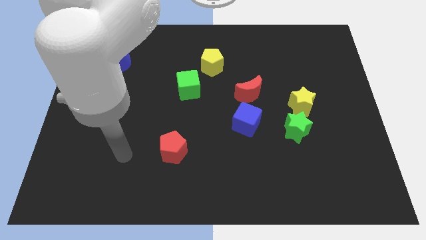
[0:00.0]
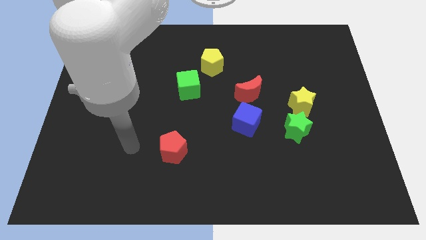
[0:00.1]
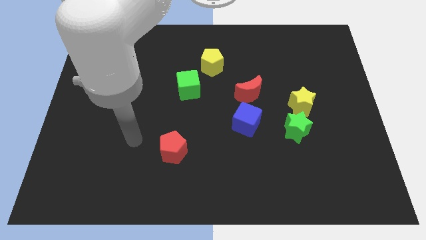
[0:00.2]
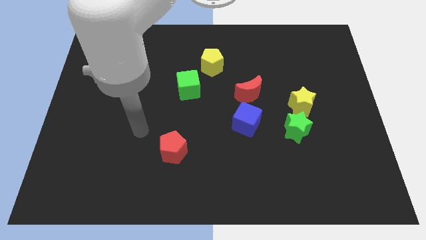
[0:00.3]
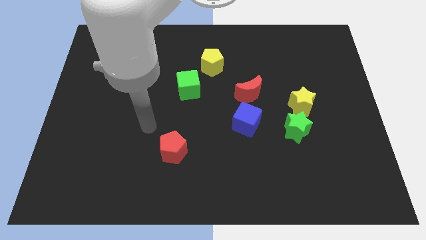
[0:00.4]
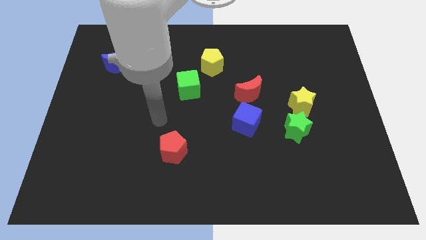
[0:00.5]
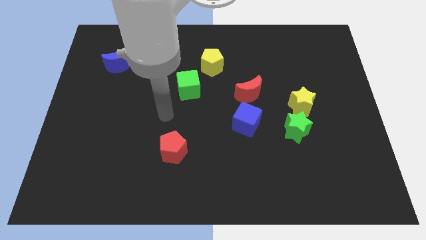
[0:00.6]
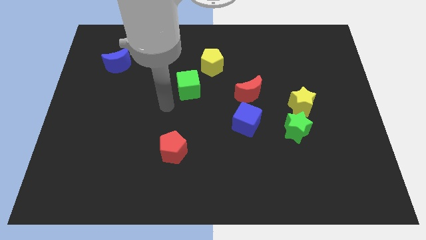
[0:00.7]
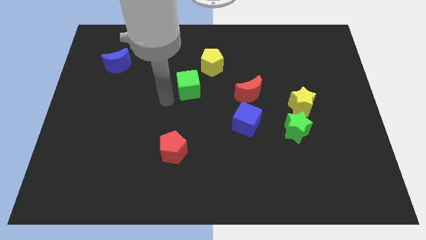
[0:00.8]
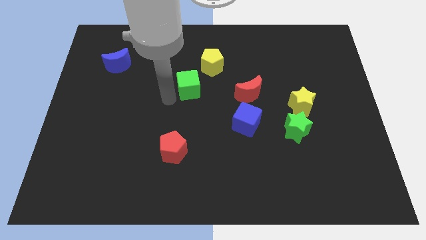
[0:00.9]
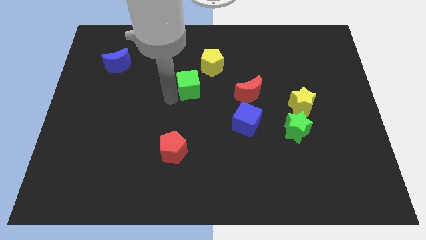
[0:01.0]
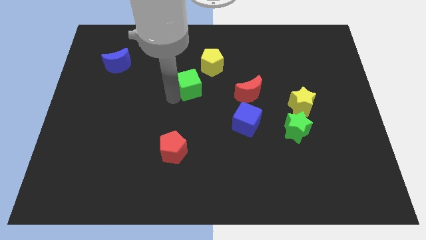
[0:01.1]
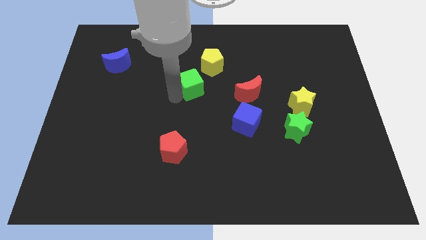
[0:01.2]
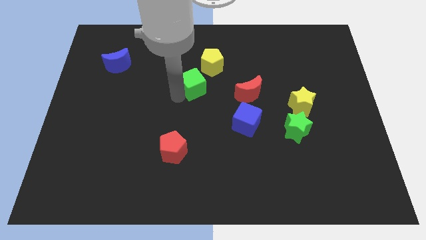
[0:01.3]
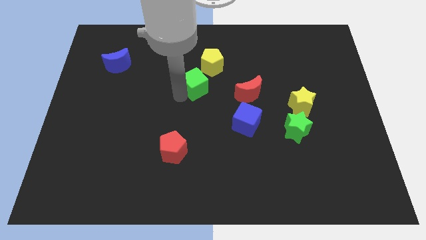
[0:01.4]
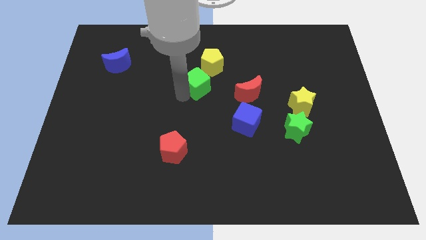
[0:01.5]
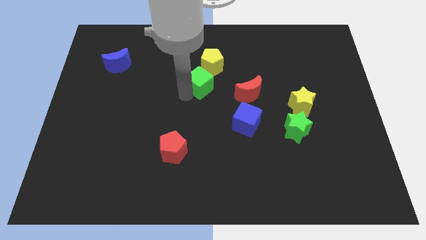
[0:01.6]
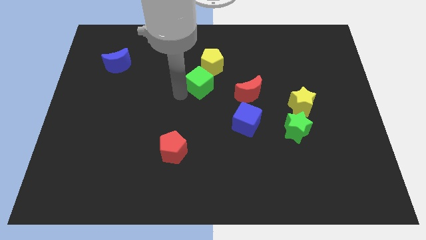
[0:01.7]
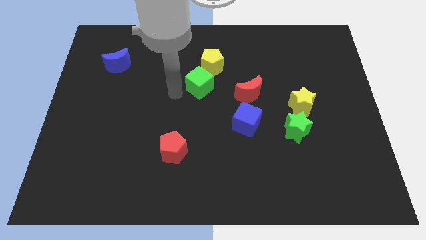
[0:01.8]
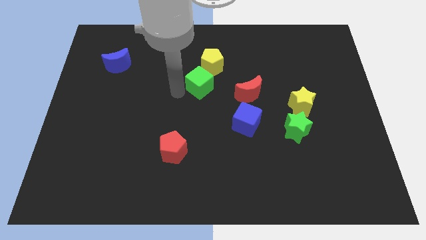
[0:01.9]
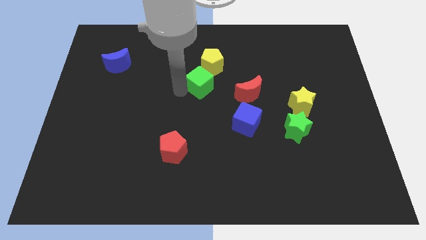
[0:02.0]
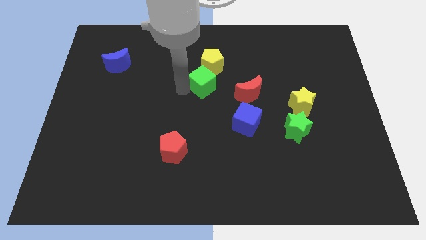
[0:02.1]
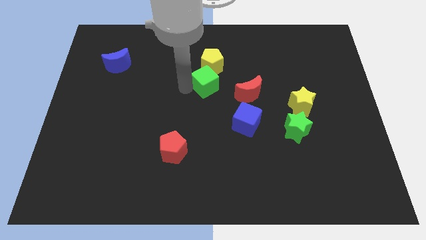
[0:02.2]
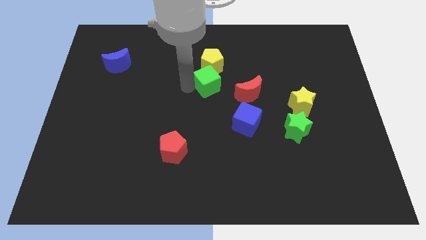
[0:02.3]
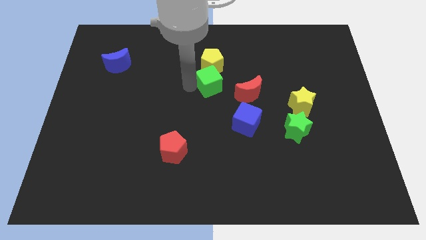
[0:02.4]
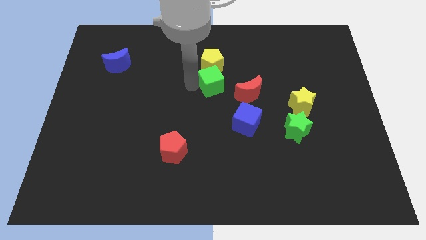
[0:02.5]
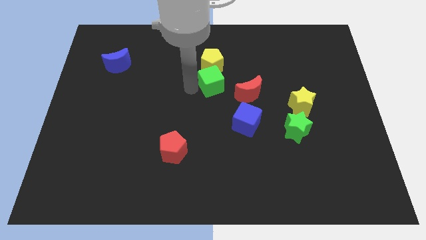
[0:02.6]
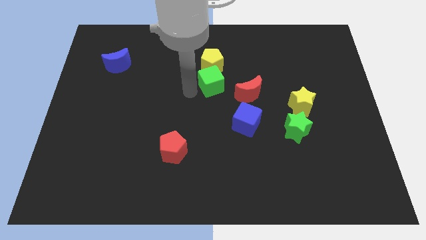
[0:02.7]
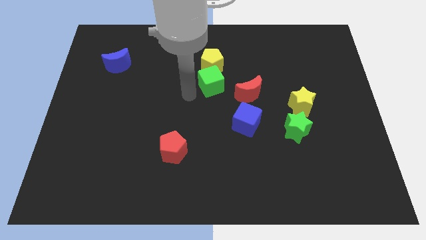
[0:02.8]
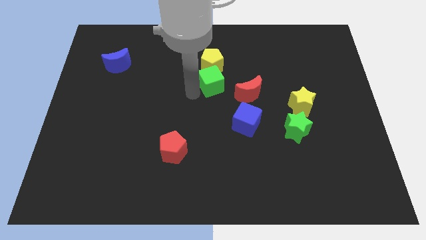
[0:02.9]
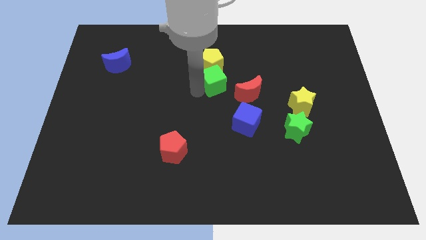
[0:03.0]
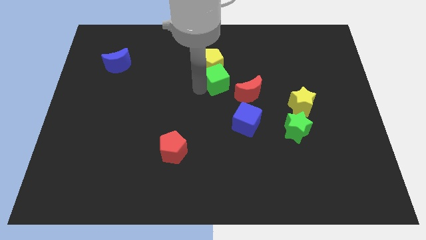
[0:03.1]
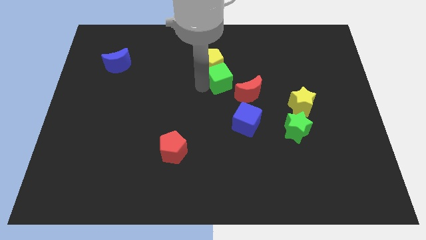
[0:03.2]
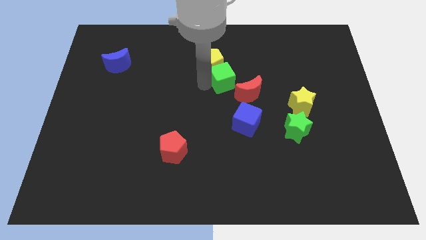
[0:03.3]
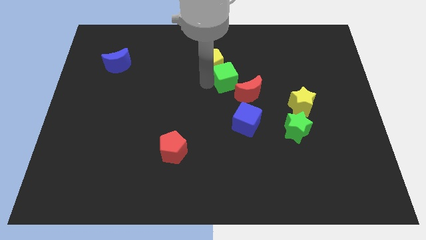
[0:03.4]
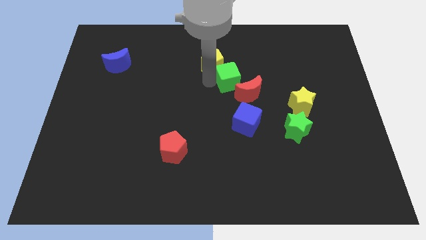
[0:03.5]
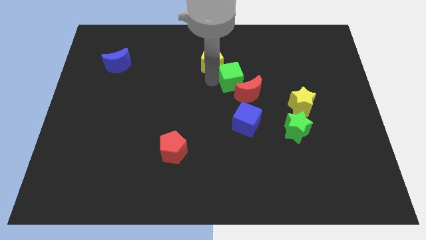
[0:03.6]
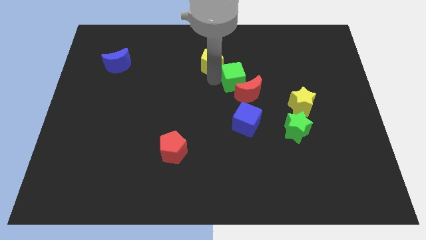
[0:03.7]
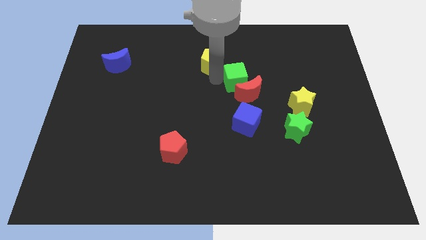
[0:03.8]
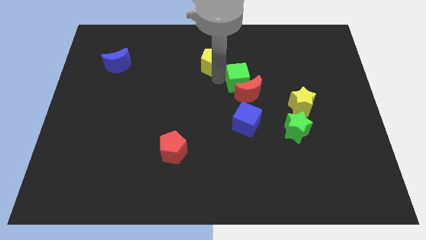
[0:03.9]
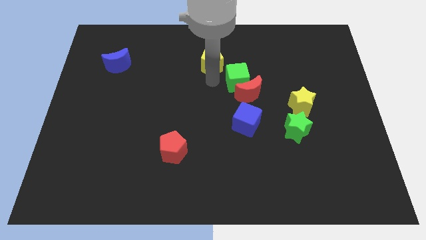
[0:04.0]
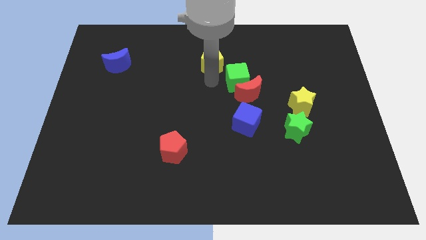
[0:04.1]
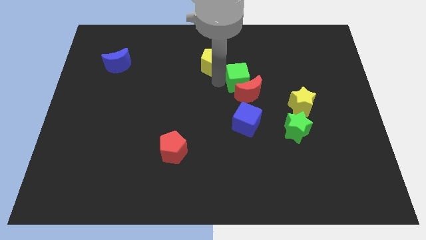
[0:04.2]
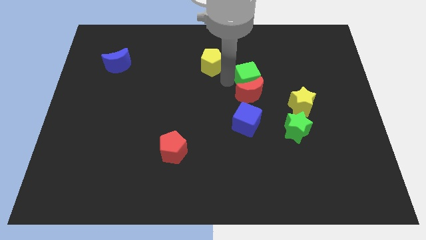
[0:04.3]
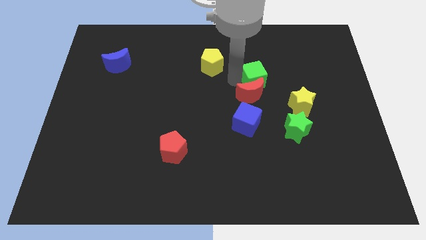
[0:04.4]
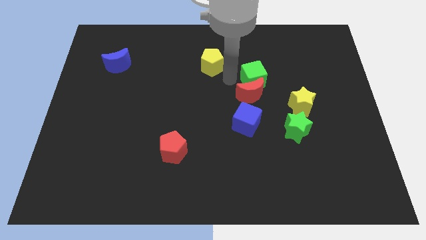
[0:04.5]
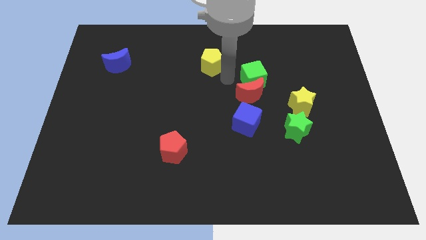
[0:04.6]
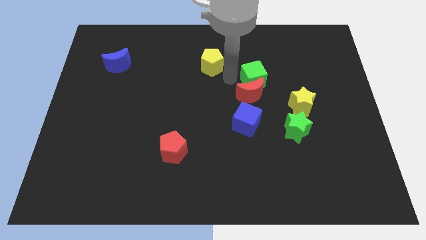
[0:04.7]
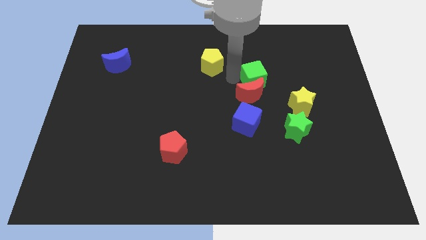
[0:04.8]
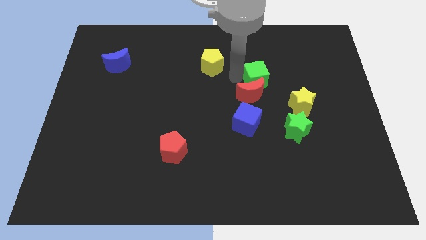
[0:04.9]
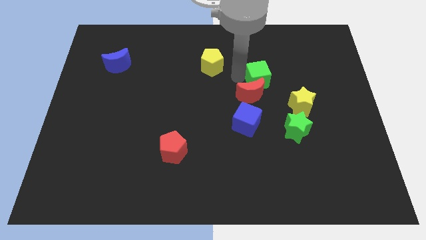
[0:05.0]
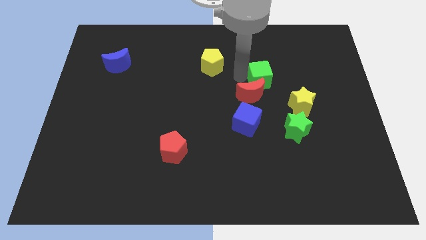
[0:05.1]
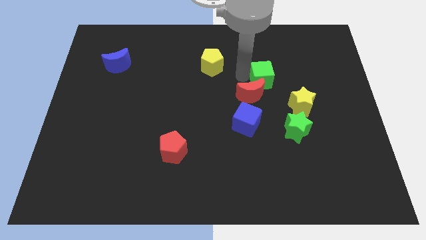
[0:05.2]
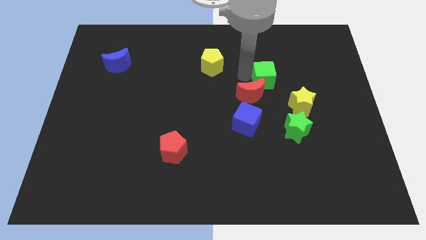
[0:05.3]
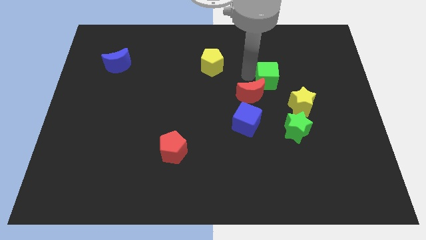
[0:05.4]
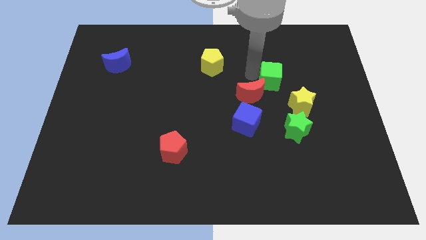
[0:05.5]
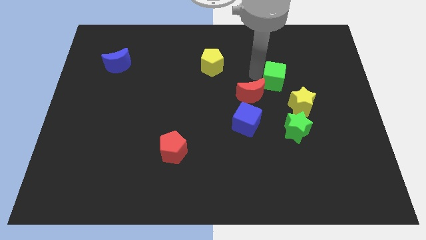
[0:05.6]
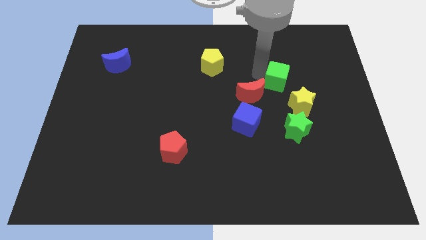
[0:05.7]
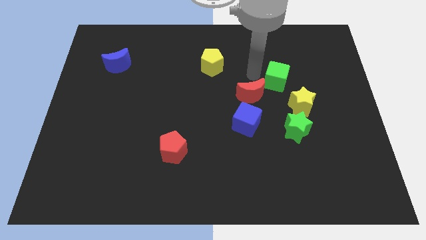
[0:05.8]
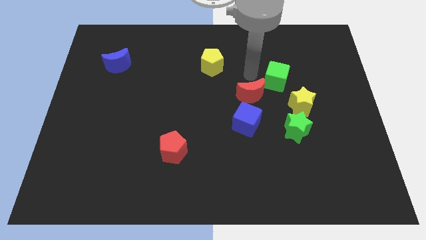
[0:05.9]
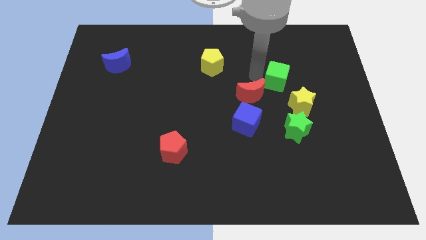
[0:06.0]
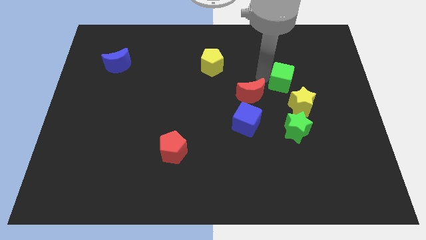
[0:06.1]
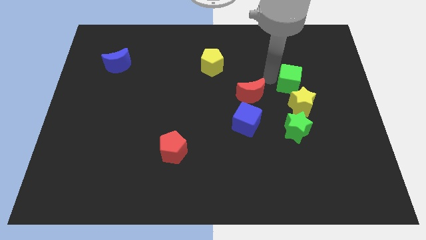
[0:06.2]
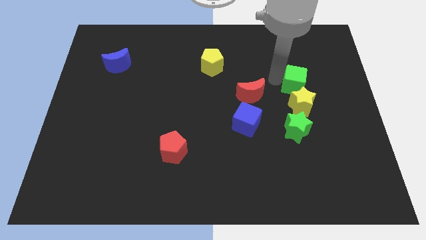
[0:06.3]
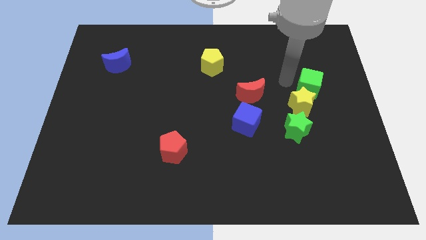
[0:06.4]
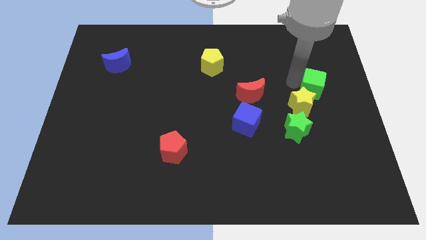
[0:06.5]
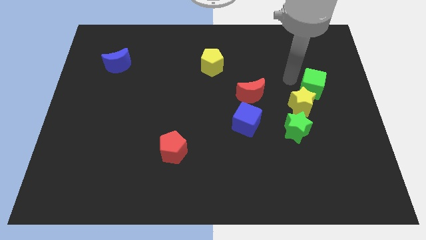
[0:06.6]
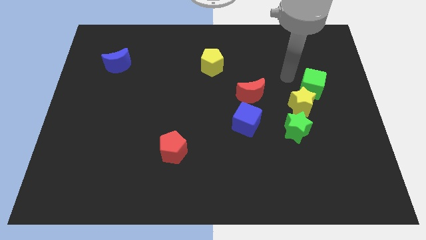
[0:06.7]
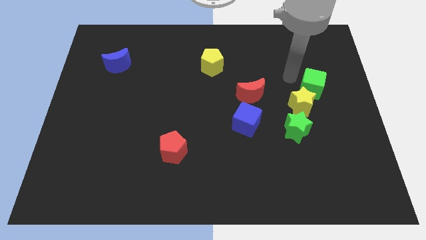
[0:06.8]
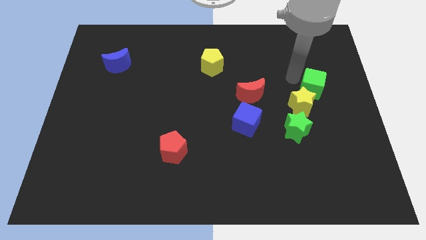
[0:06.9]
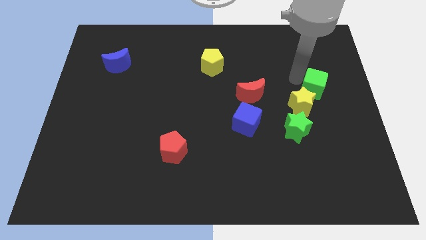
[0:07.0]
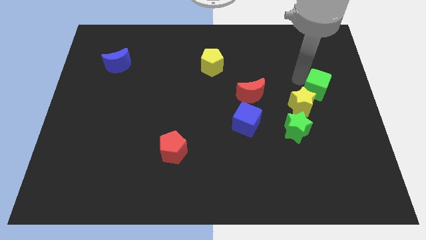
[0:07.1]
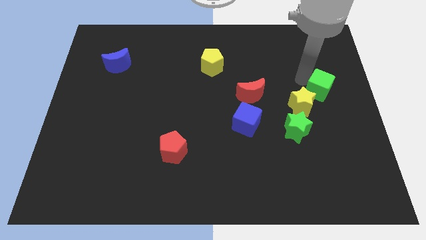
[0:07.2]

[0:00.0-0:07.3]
put the green cube to the right side of the board
